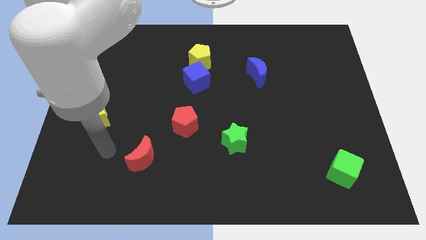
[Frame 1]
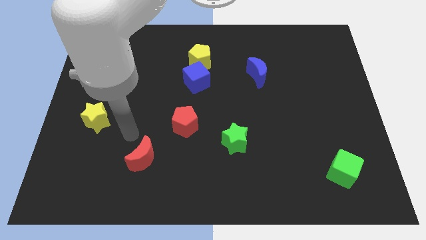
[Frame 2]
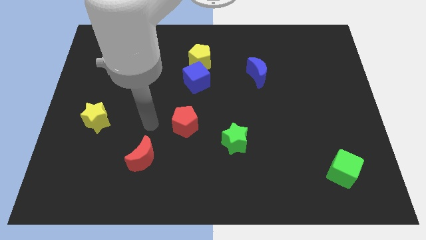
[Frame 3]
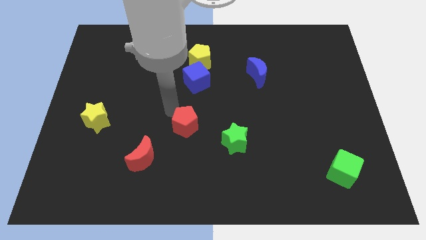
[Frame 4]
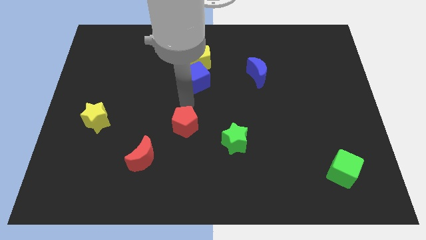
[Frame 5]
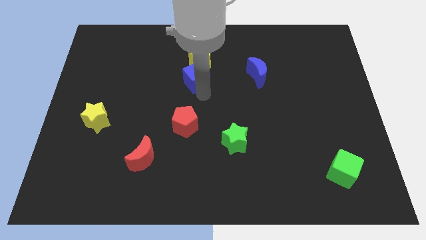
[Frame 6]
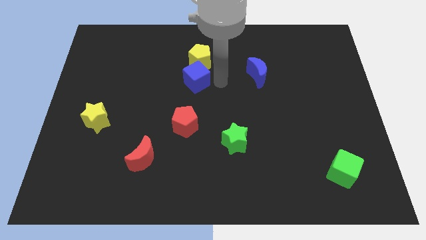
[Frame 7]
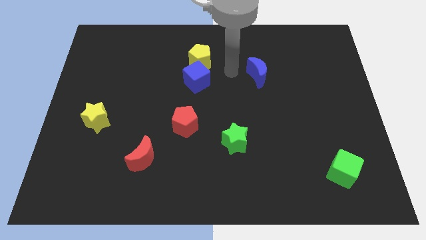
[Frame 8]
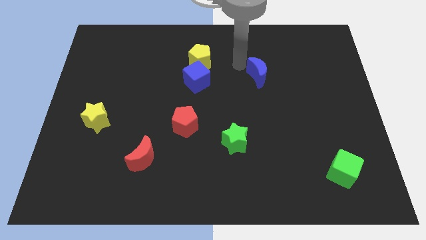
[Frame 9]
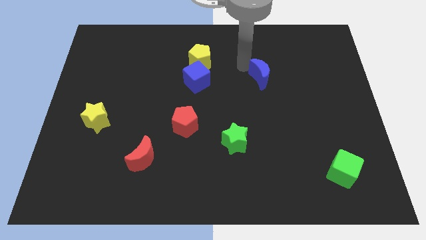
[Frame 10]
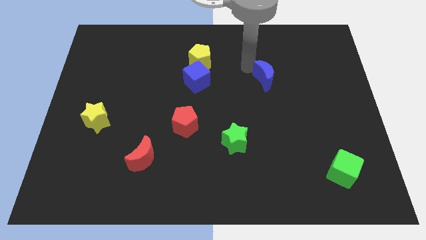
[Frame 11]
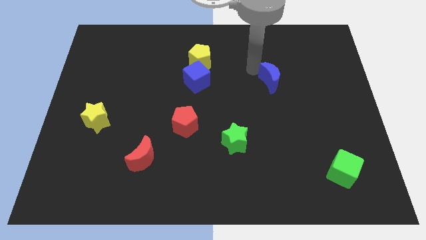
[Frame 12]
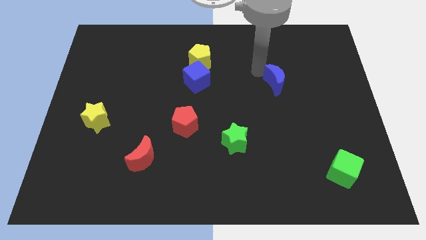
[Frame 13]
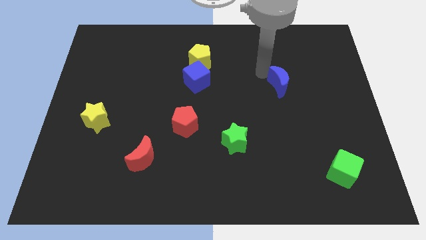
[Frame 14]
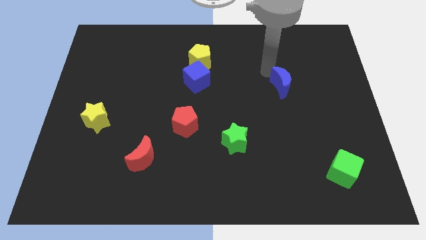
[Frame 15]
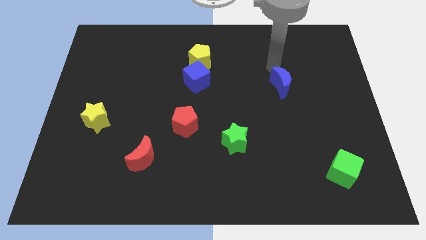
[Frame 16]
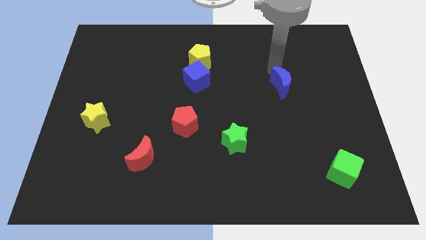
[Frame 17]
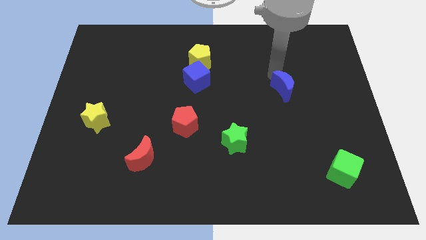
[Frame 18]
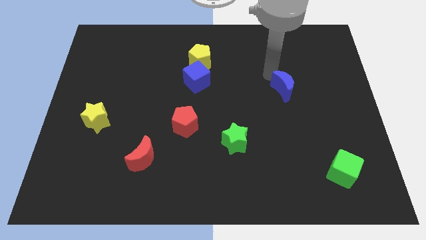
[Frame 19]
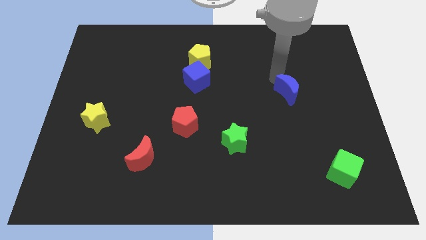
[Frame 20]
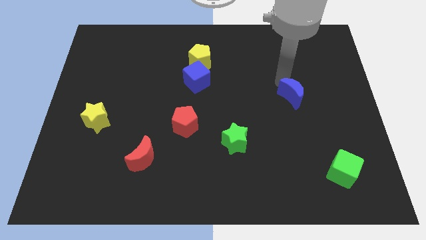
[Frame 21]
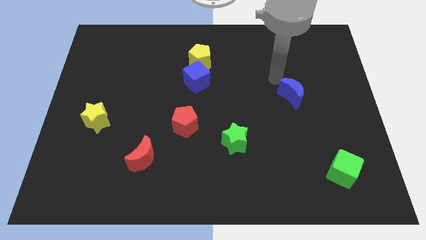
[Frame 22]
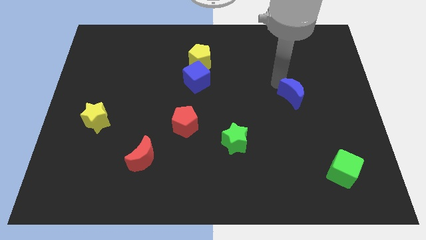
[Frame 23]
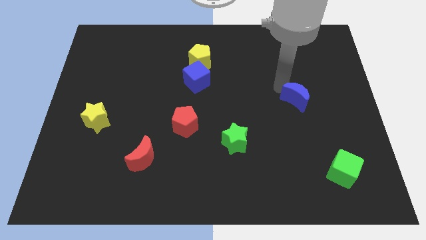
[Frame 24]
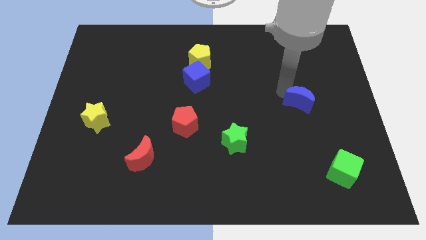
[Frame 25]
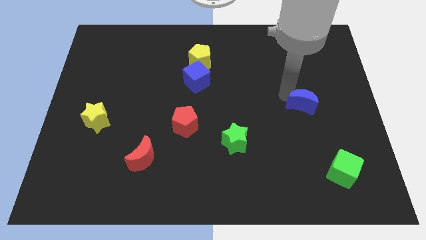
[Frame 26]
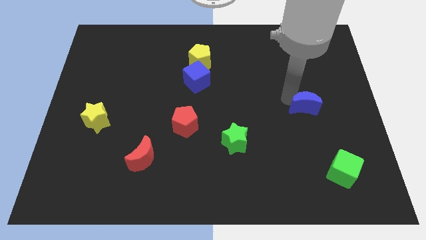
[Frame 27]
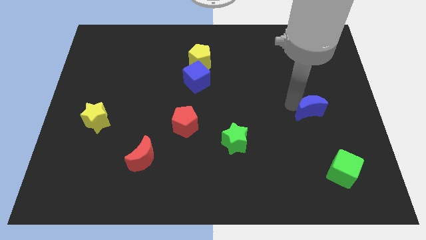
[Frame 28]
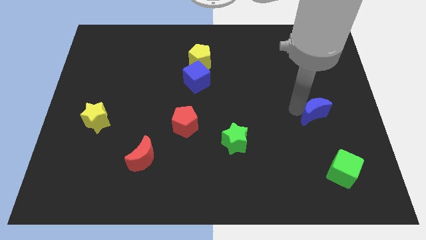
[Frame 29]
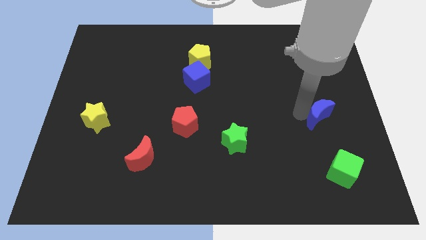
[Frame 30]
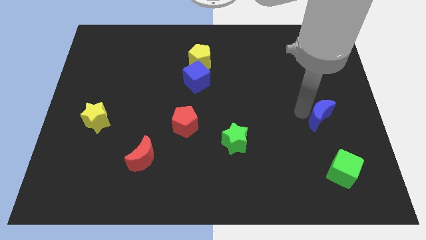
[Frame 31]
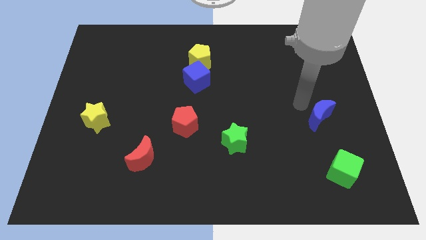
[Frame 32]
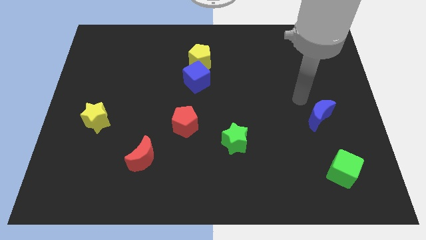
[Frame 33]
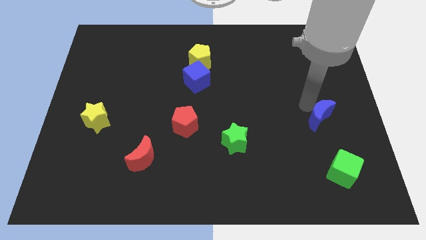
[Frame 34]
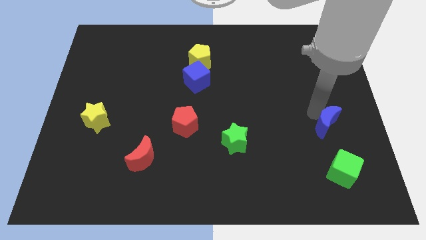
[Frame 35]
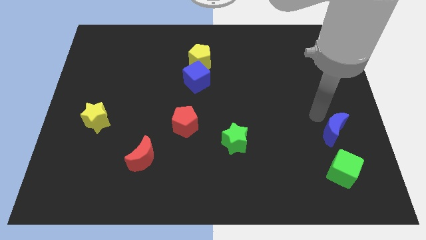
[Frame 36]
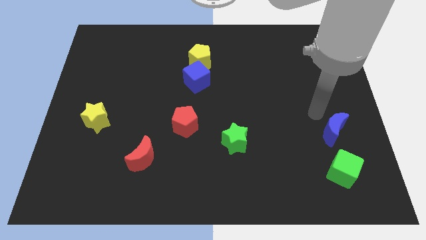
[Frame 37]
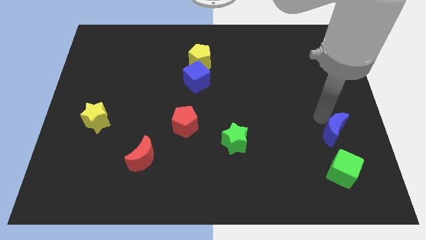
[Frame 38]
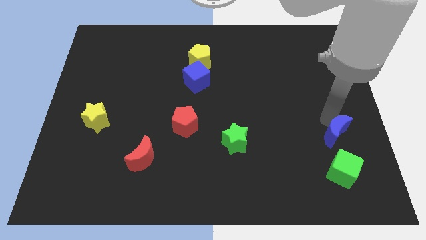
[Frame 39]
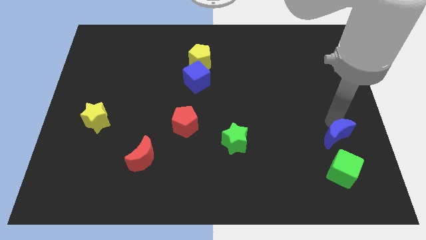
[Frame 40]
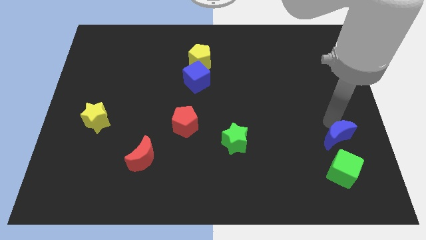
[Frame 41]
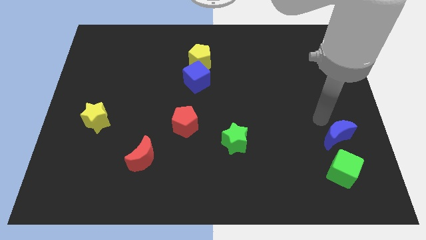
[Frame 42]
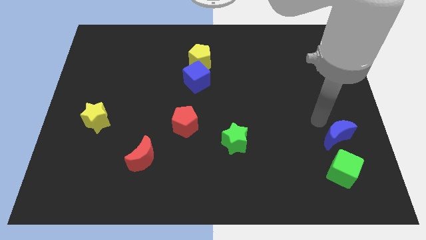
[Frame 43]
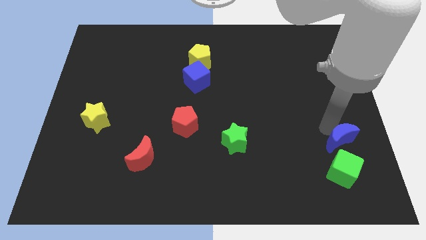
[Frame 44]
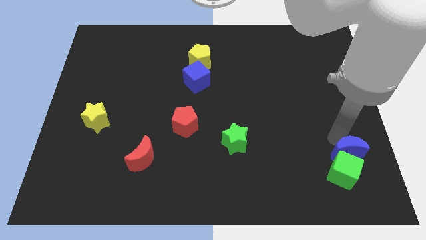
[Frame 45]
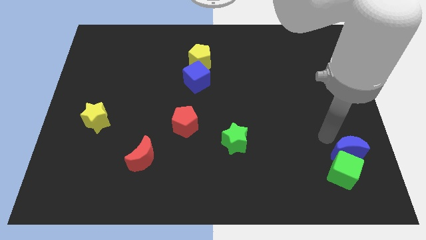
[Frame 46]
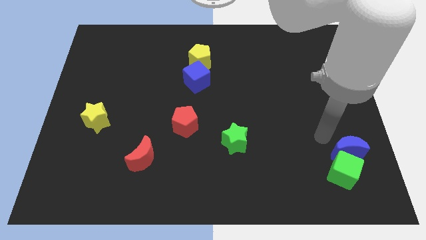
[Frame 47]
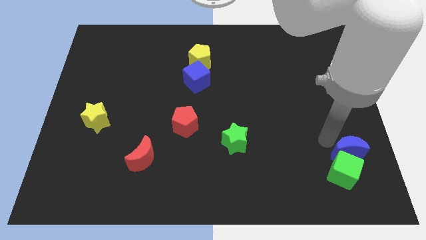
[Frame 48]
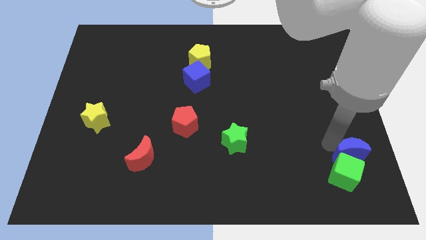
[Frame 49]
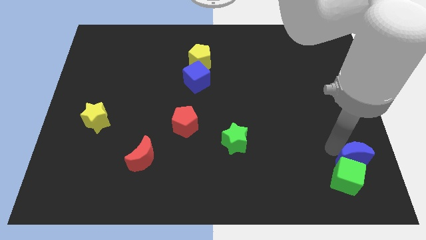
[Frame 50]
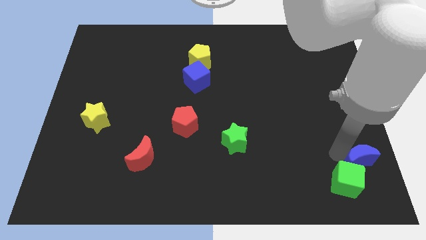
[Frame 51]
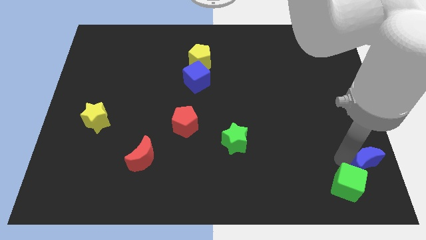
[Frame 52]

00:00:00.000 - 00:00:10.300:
push the blue moon to the bottom right

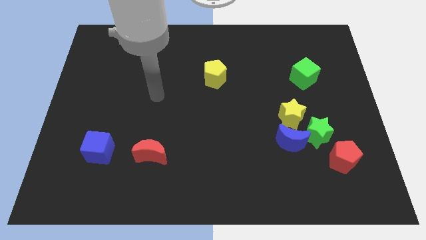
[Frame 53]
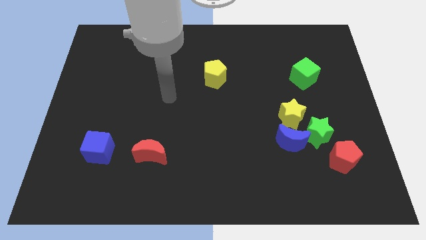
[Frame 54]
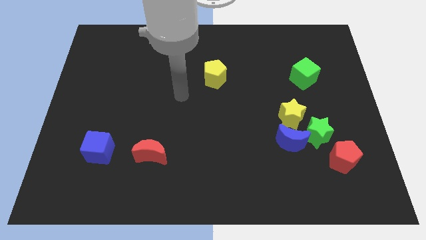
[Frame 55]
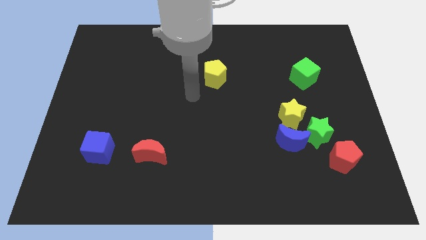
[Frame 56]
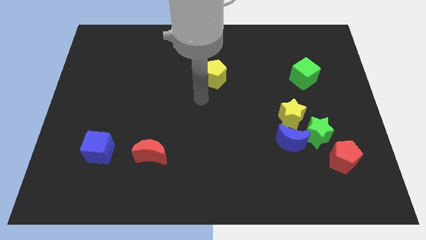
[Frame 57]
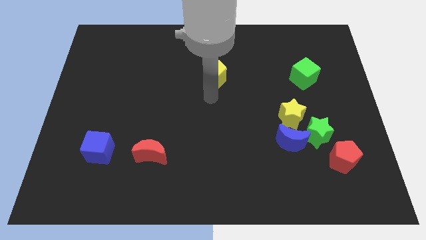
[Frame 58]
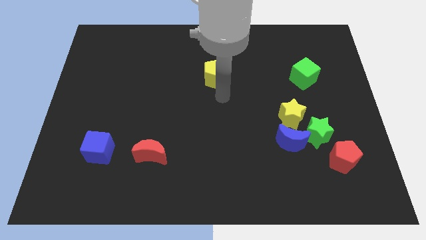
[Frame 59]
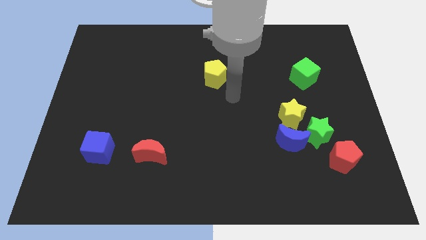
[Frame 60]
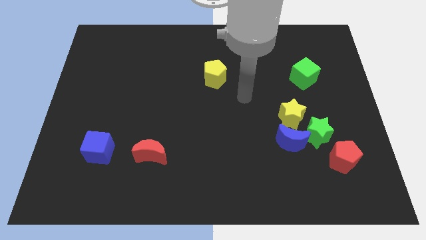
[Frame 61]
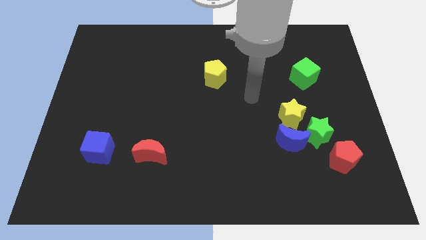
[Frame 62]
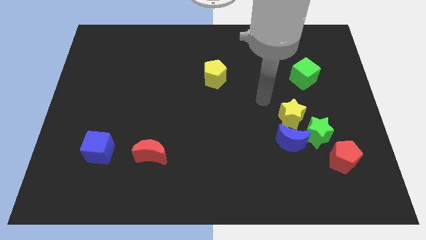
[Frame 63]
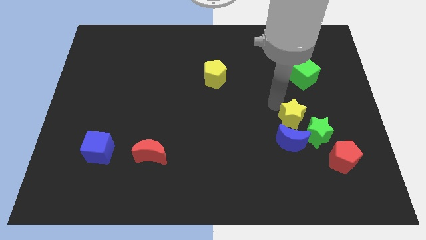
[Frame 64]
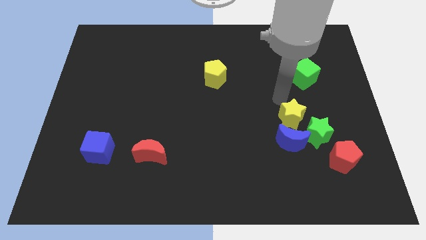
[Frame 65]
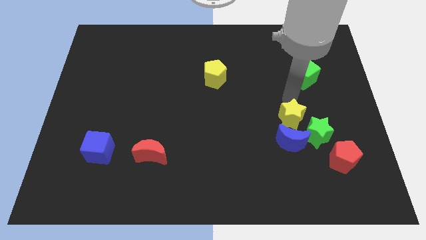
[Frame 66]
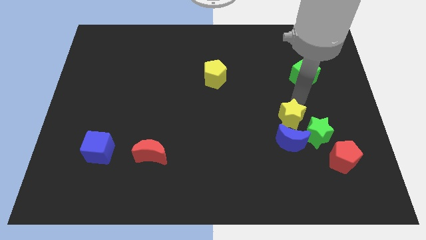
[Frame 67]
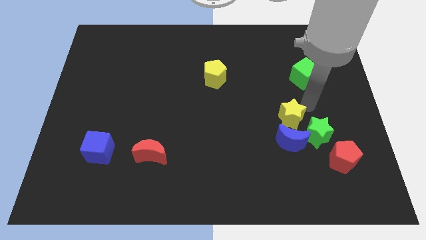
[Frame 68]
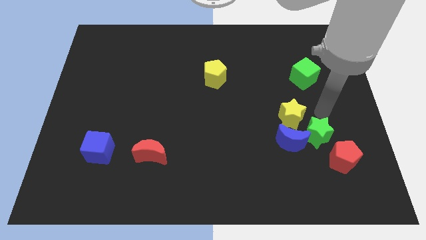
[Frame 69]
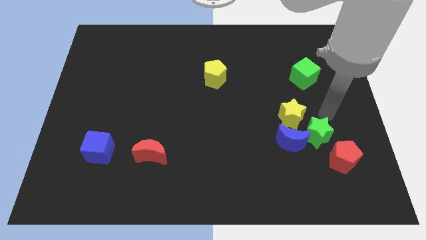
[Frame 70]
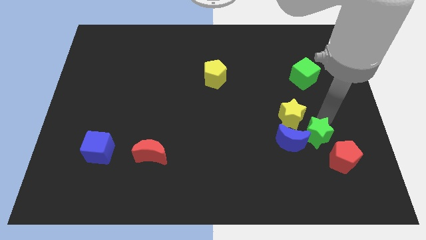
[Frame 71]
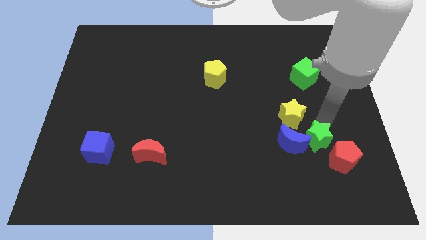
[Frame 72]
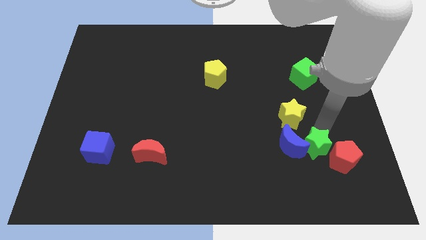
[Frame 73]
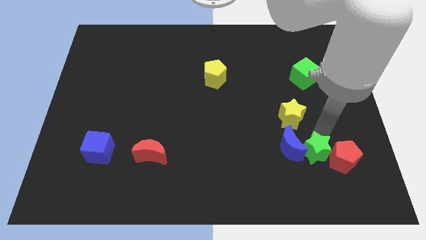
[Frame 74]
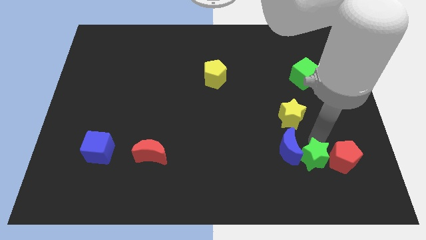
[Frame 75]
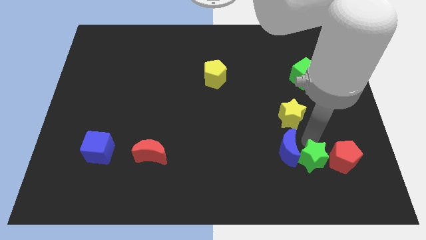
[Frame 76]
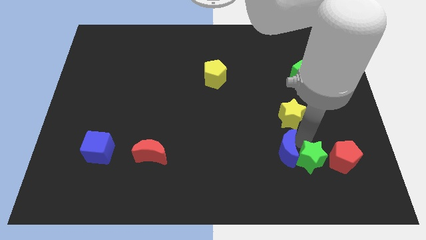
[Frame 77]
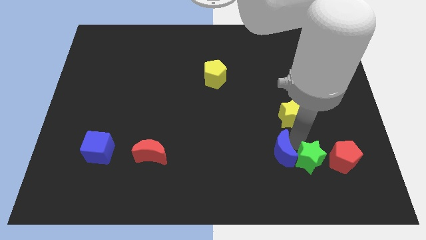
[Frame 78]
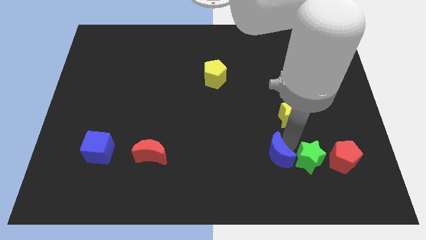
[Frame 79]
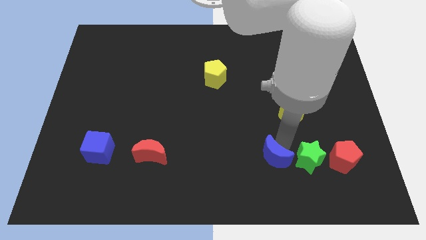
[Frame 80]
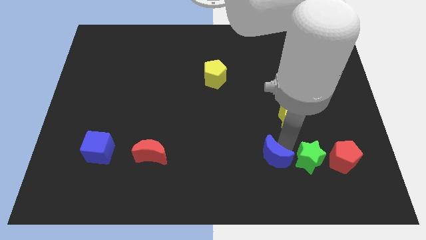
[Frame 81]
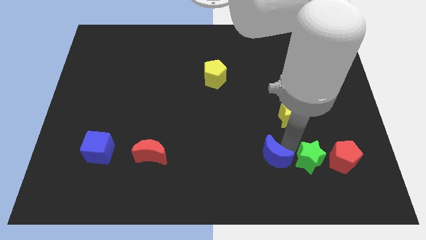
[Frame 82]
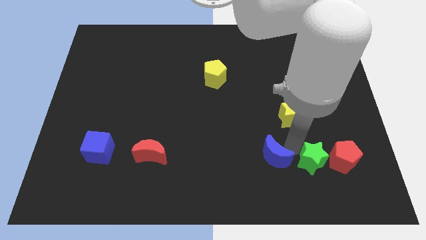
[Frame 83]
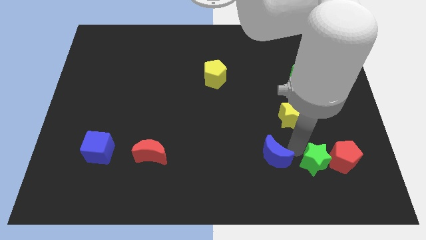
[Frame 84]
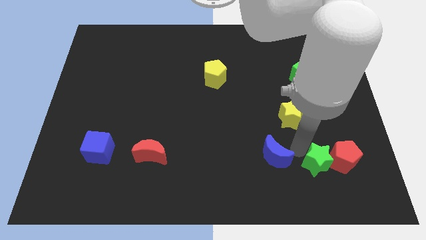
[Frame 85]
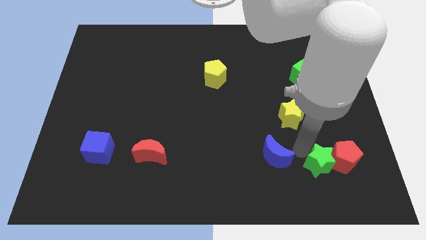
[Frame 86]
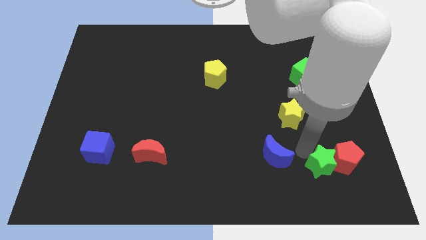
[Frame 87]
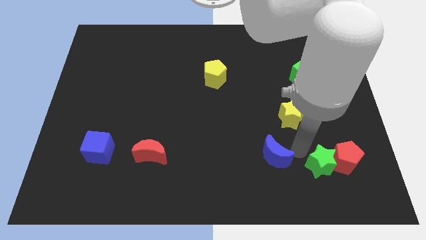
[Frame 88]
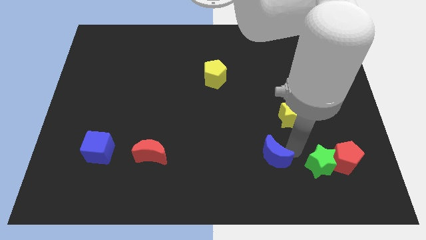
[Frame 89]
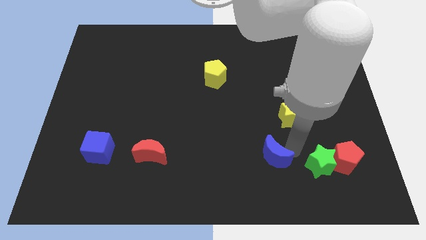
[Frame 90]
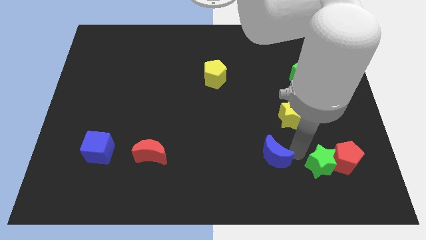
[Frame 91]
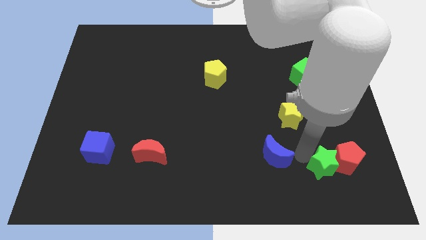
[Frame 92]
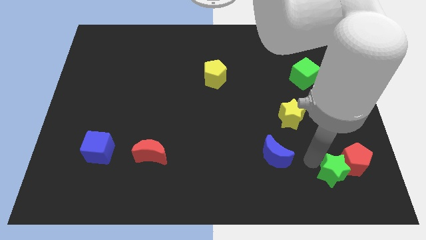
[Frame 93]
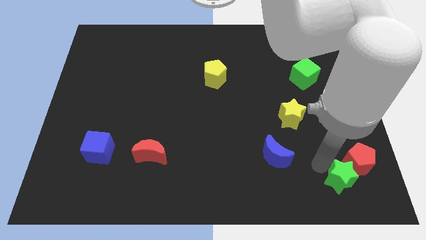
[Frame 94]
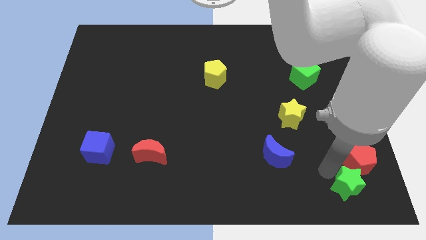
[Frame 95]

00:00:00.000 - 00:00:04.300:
slide the green star to the bottom right corner
